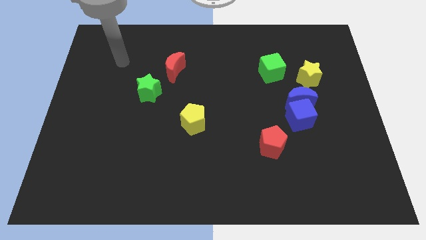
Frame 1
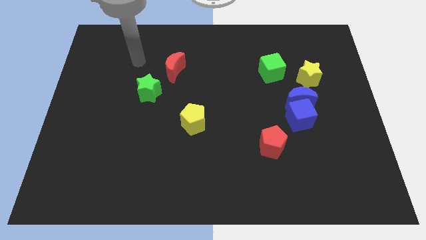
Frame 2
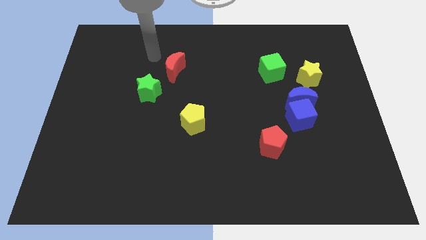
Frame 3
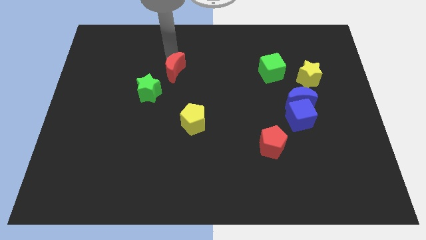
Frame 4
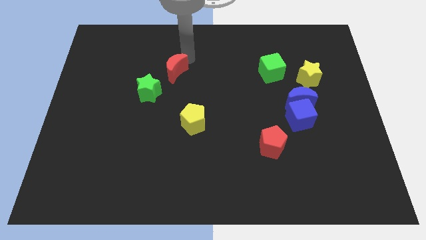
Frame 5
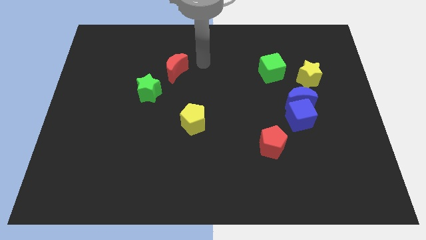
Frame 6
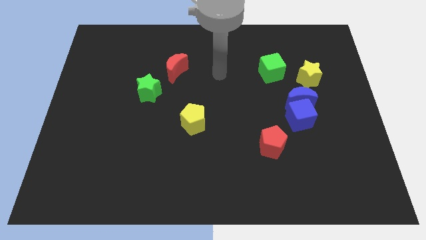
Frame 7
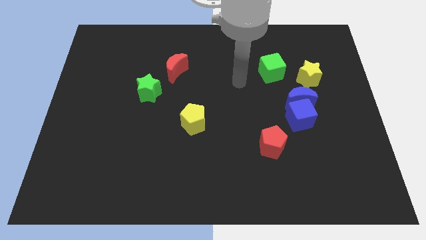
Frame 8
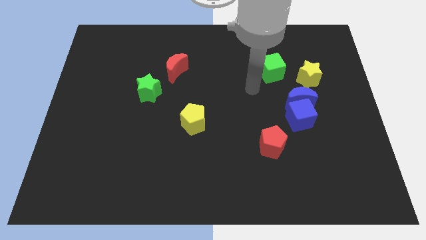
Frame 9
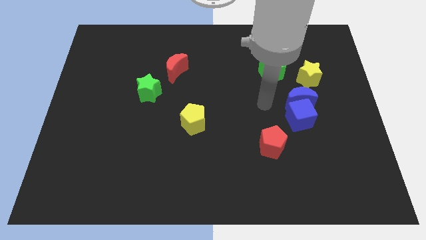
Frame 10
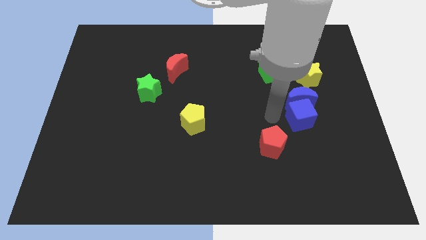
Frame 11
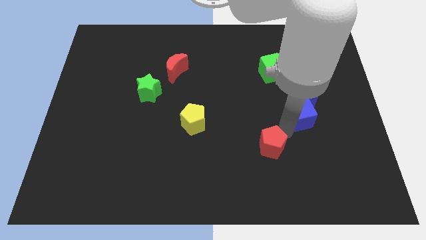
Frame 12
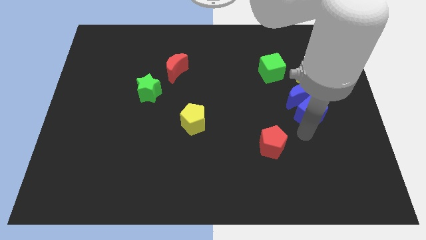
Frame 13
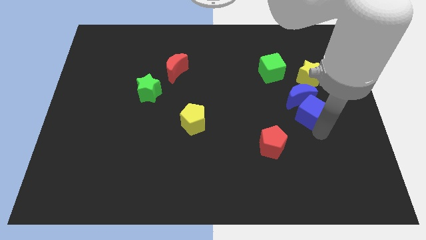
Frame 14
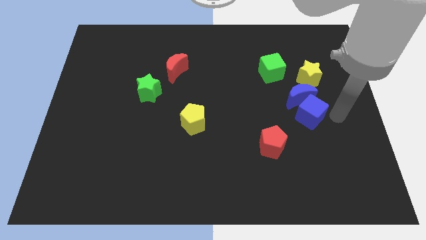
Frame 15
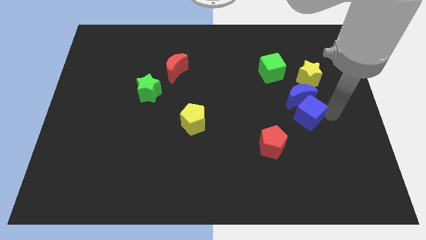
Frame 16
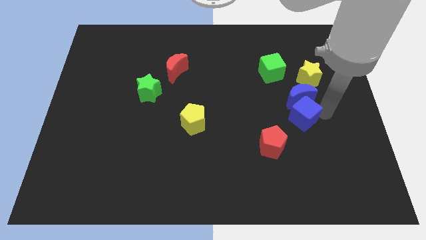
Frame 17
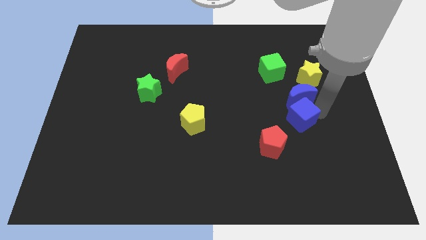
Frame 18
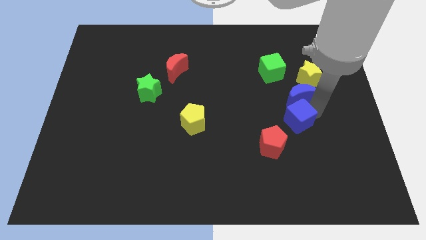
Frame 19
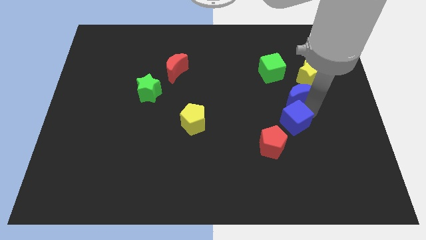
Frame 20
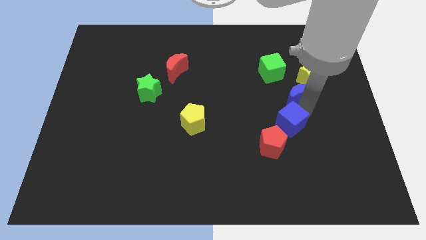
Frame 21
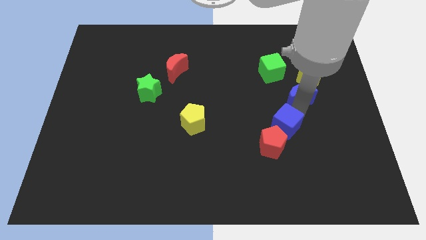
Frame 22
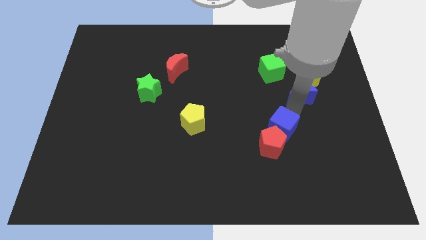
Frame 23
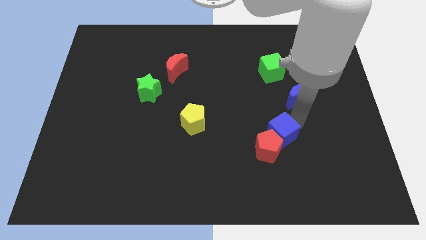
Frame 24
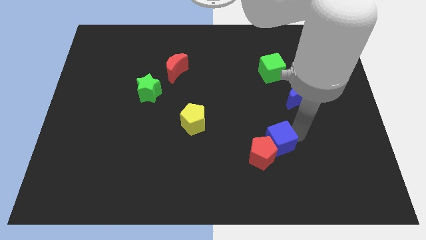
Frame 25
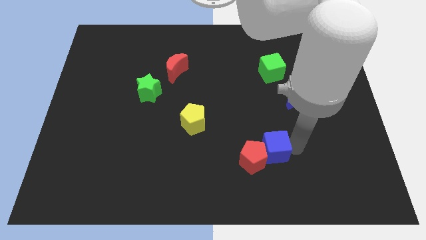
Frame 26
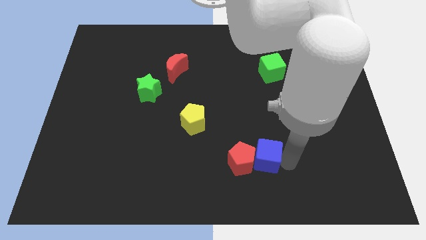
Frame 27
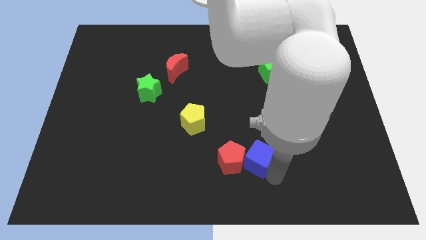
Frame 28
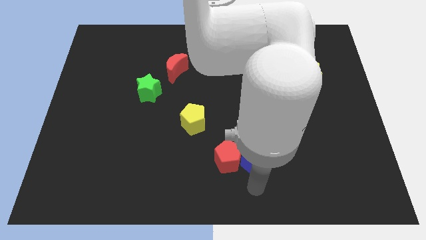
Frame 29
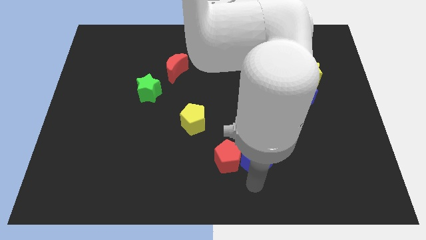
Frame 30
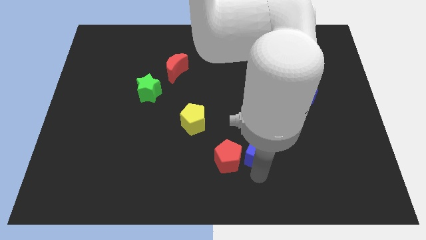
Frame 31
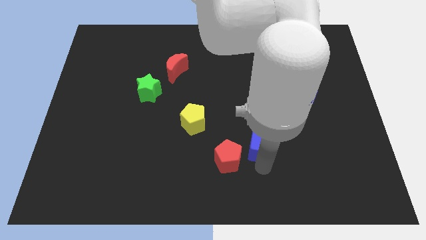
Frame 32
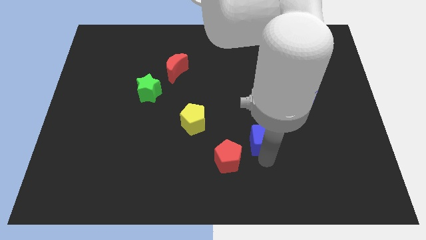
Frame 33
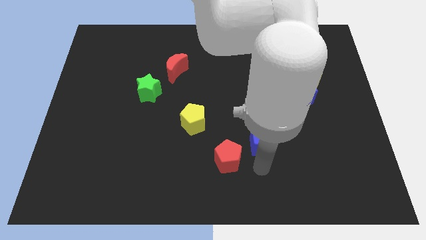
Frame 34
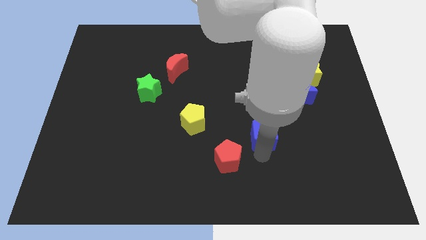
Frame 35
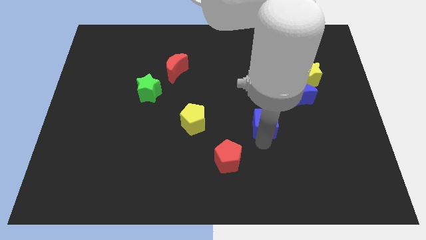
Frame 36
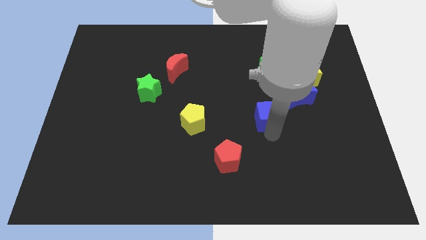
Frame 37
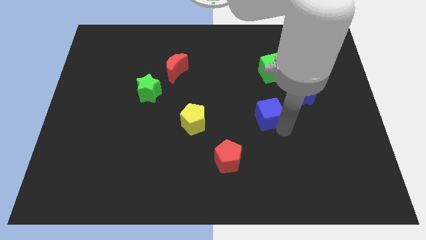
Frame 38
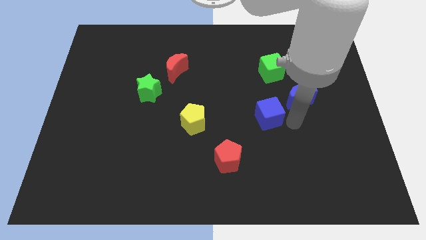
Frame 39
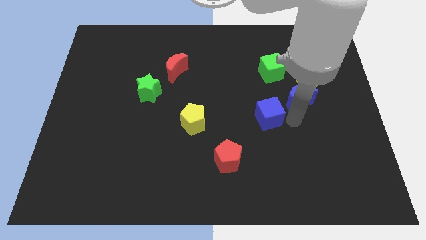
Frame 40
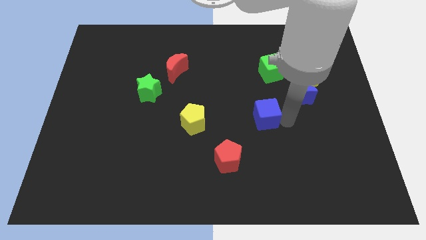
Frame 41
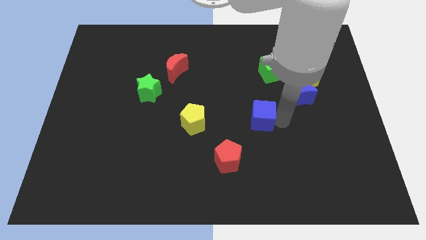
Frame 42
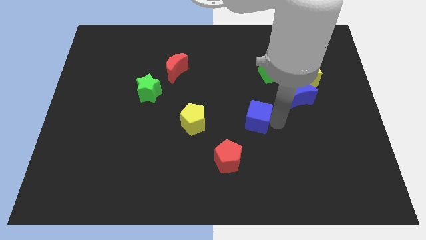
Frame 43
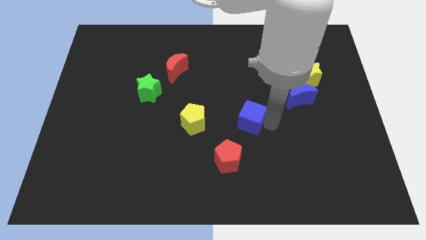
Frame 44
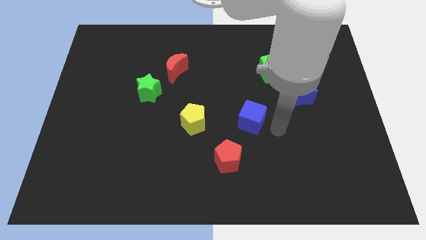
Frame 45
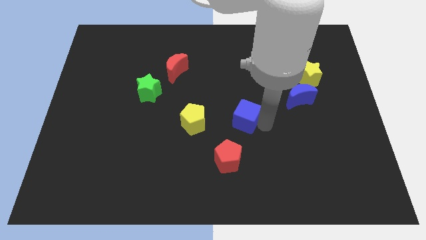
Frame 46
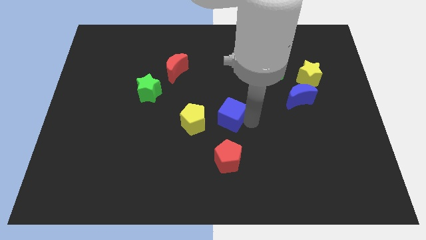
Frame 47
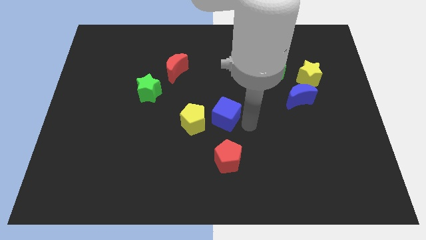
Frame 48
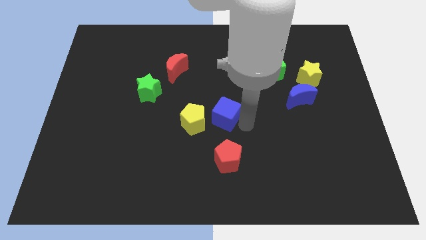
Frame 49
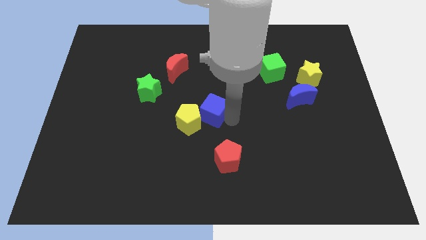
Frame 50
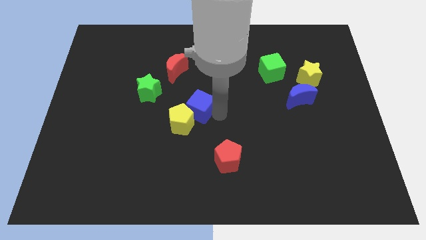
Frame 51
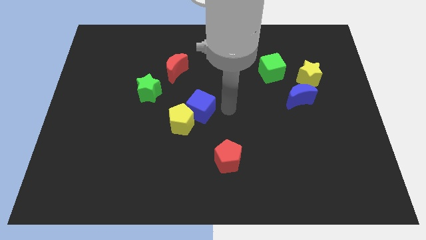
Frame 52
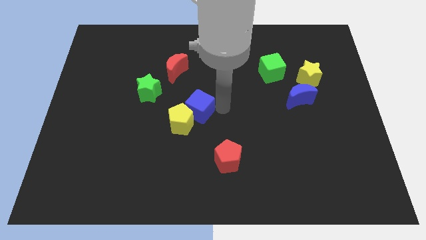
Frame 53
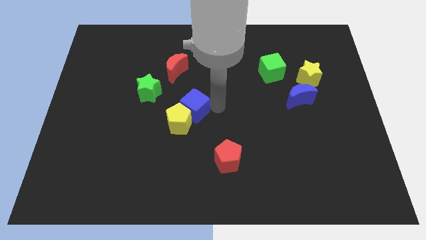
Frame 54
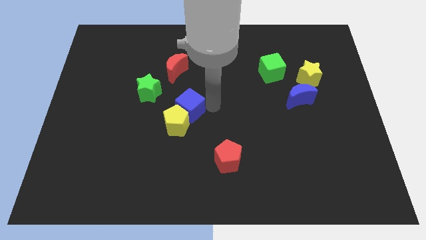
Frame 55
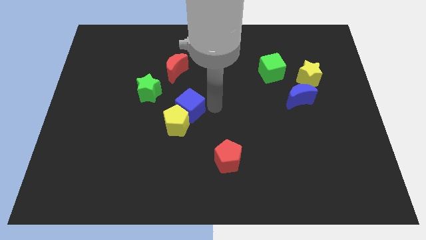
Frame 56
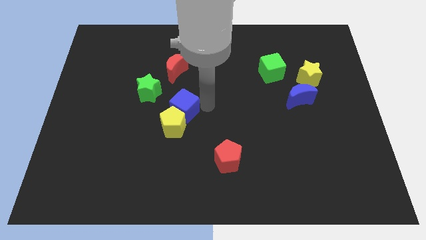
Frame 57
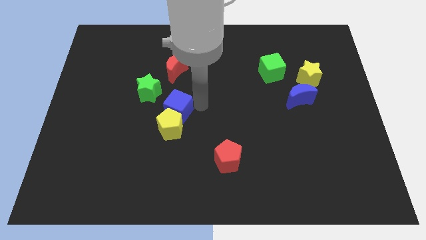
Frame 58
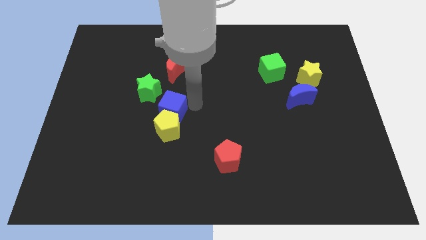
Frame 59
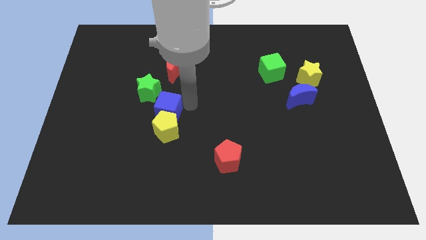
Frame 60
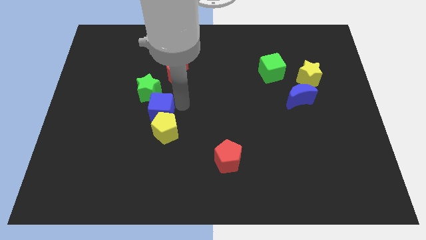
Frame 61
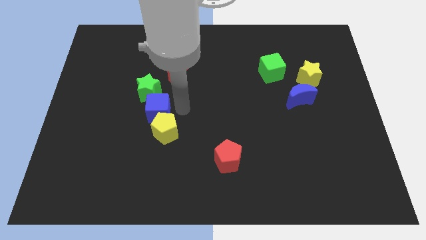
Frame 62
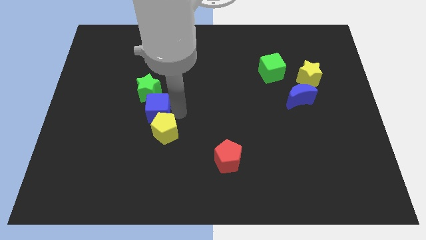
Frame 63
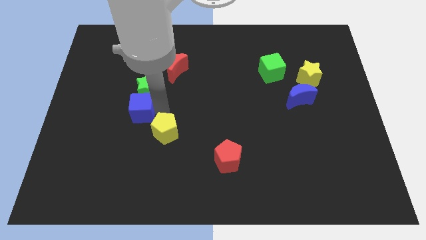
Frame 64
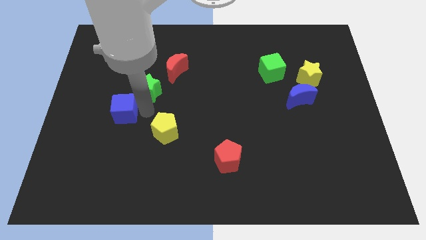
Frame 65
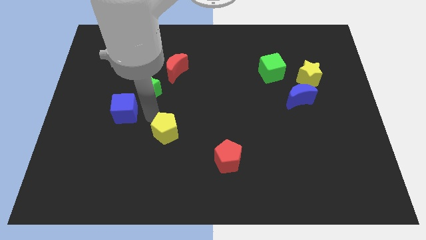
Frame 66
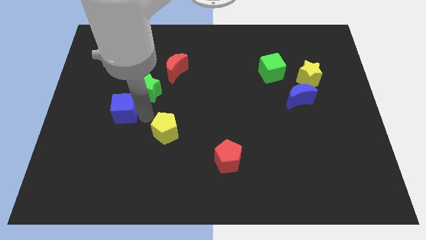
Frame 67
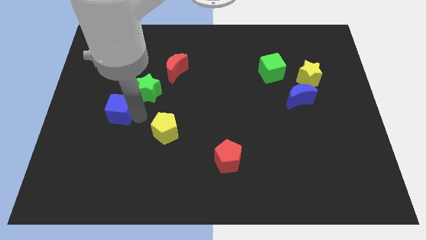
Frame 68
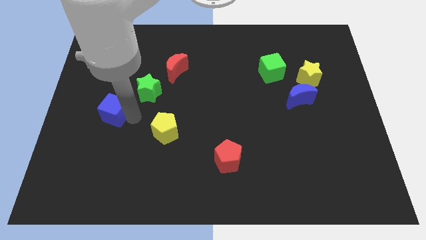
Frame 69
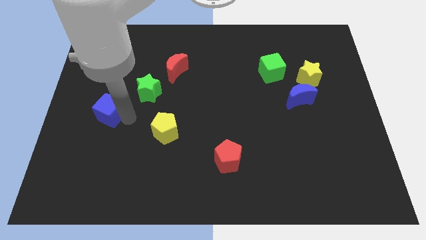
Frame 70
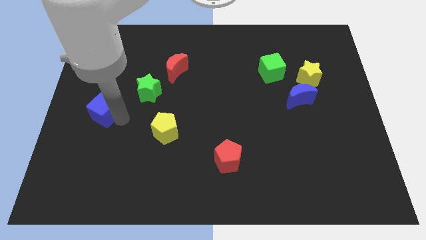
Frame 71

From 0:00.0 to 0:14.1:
put the blue cube to the left side
